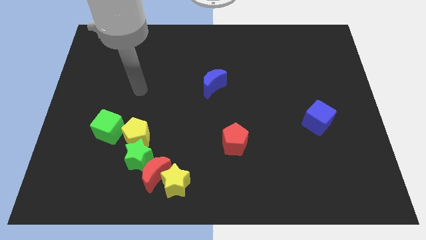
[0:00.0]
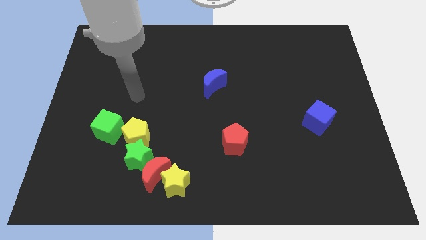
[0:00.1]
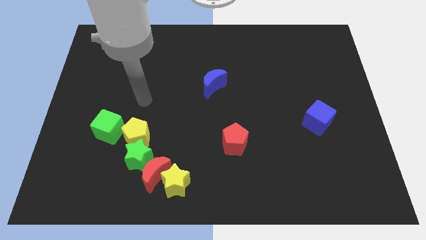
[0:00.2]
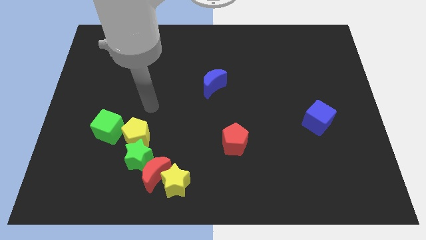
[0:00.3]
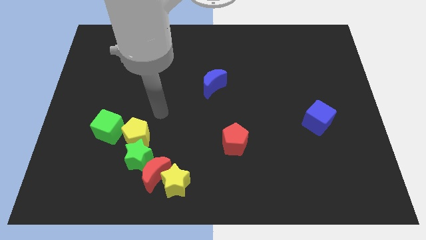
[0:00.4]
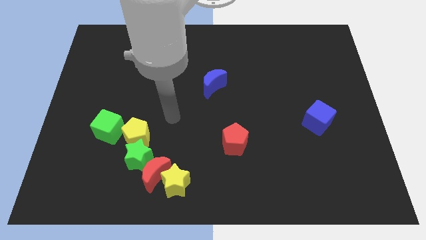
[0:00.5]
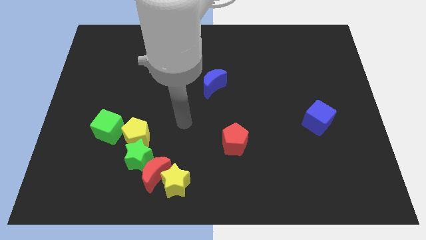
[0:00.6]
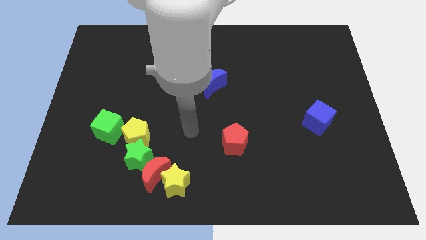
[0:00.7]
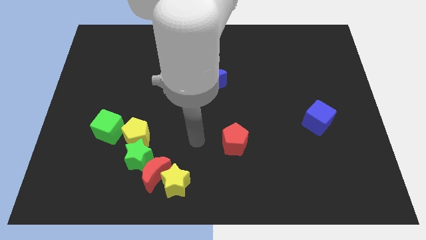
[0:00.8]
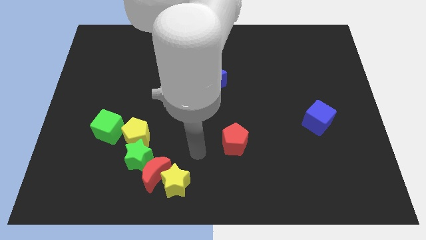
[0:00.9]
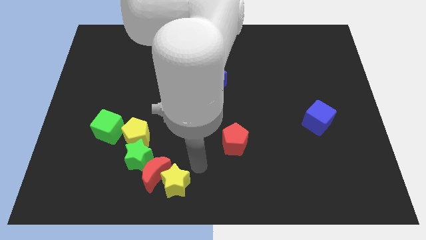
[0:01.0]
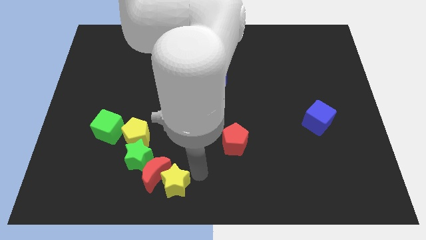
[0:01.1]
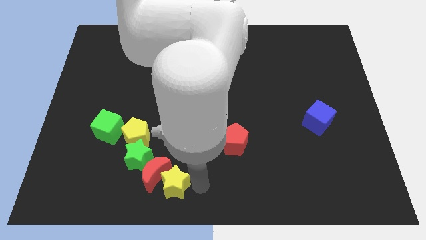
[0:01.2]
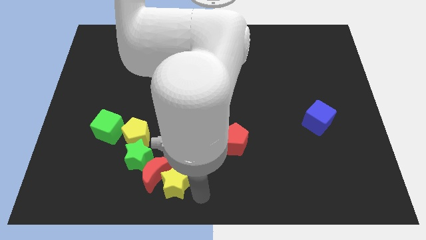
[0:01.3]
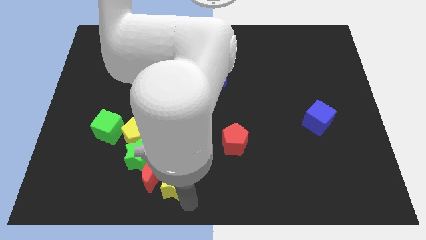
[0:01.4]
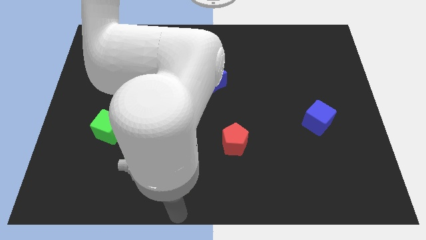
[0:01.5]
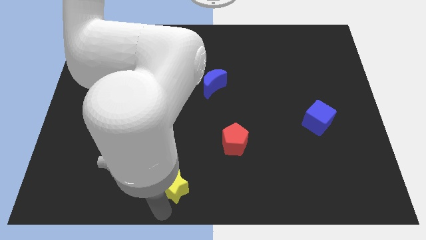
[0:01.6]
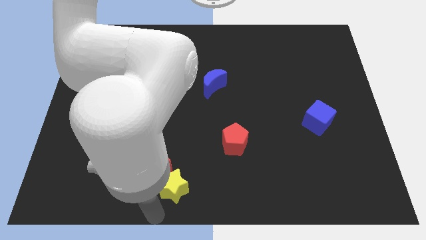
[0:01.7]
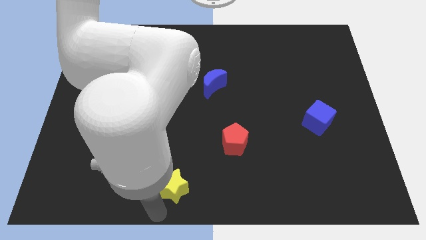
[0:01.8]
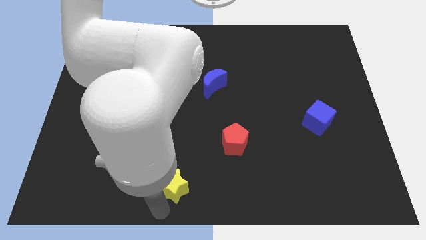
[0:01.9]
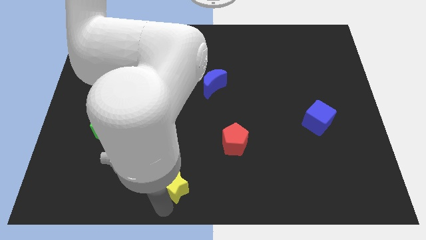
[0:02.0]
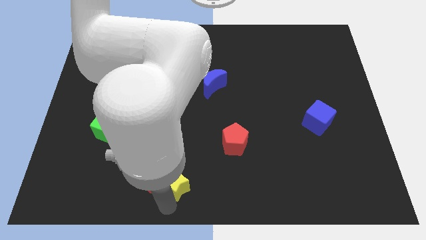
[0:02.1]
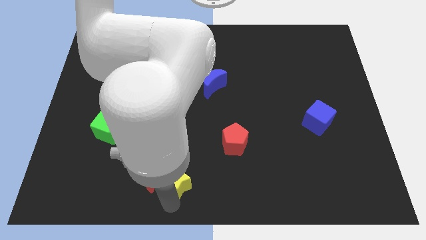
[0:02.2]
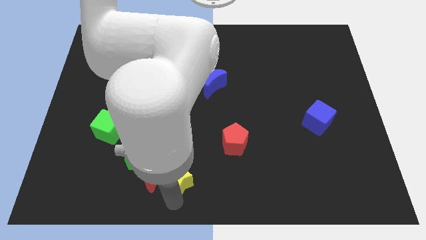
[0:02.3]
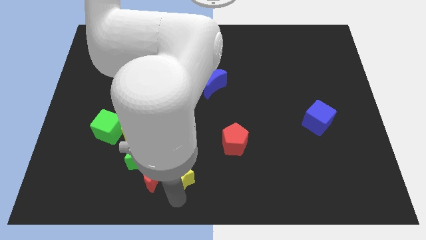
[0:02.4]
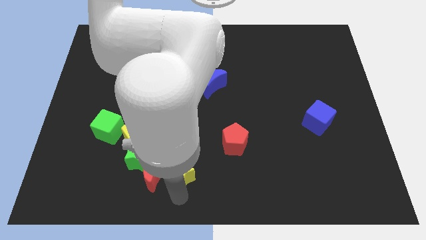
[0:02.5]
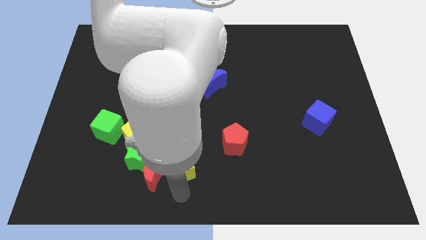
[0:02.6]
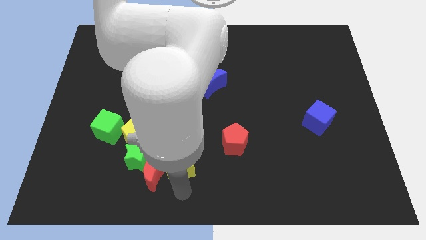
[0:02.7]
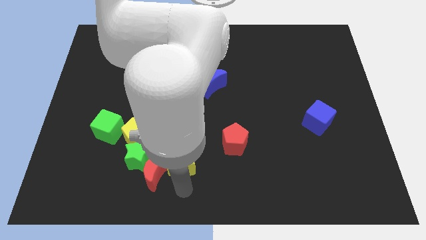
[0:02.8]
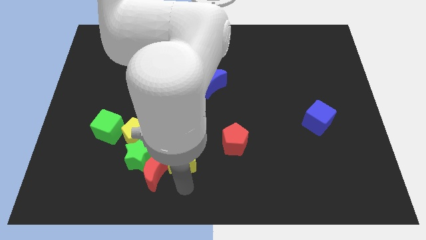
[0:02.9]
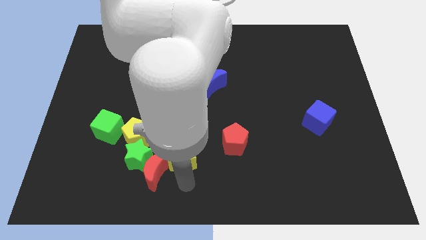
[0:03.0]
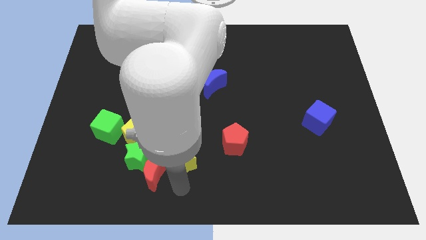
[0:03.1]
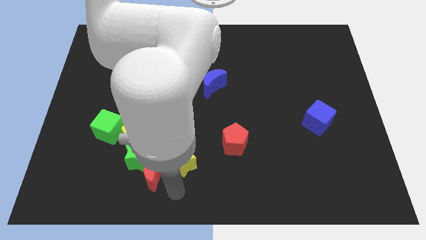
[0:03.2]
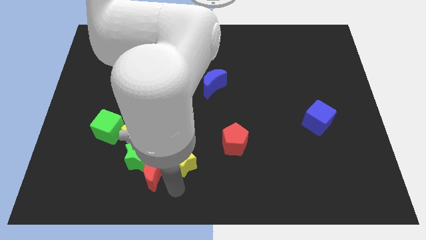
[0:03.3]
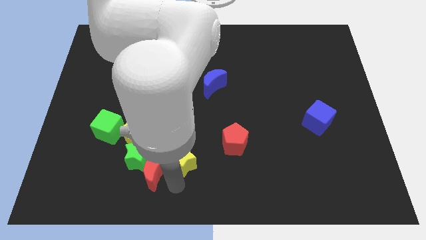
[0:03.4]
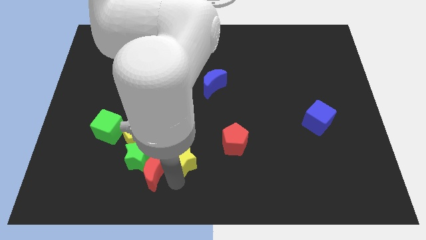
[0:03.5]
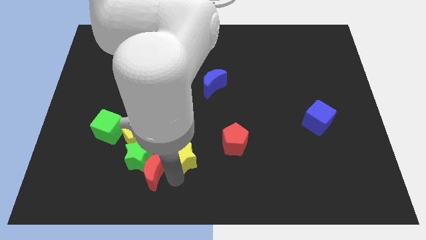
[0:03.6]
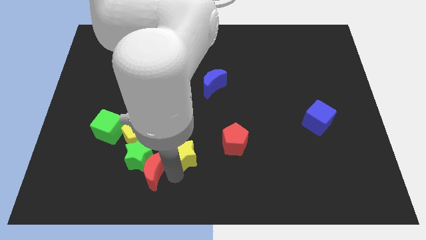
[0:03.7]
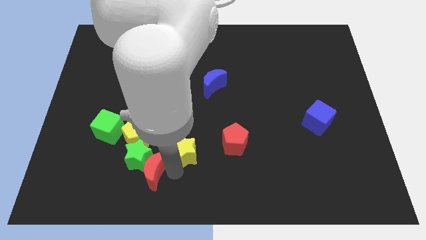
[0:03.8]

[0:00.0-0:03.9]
move the yellow star up a little

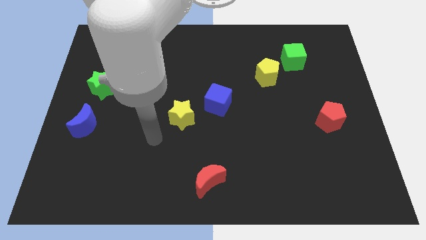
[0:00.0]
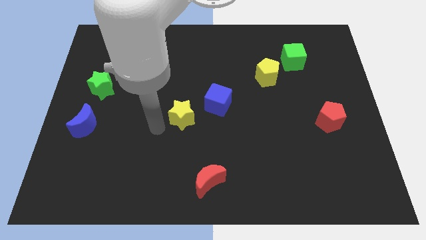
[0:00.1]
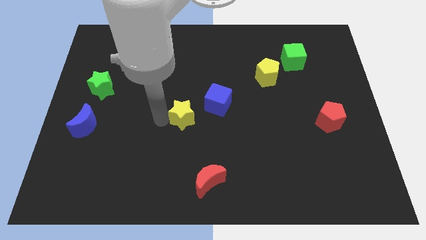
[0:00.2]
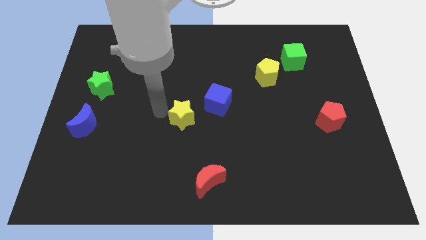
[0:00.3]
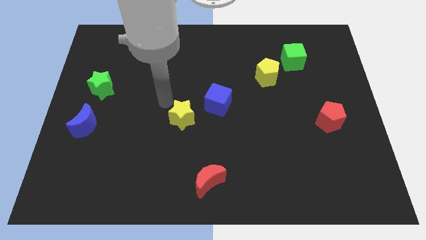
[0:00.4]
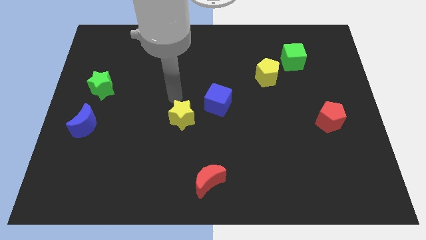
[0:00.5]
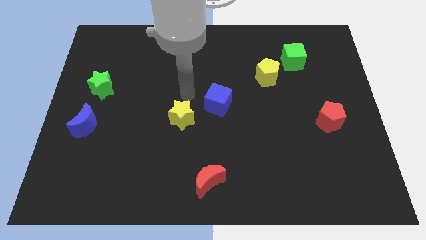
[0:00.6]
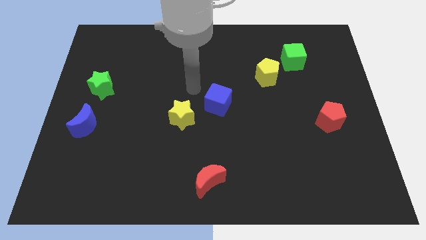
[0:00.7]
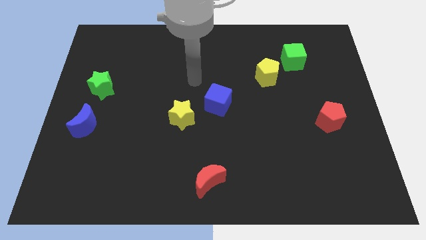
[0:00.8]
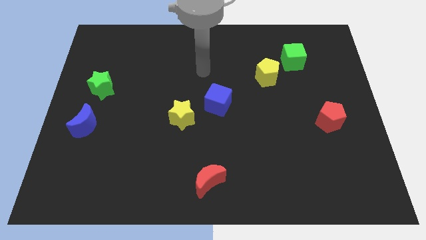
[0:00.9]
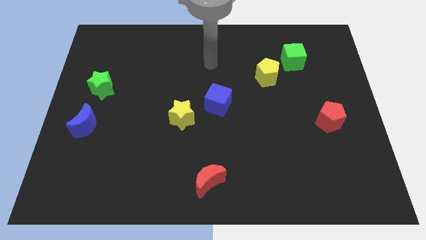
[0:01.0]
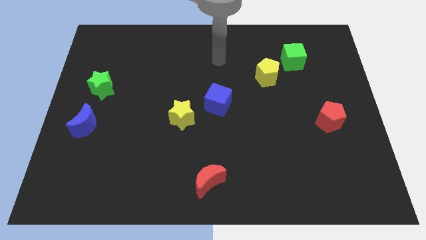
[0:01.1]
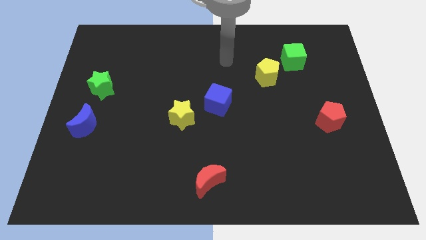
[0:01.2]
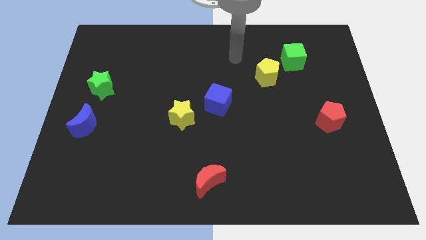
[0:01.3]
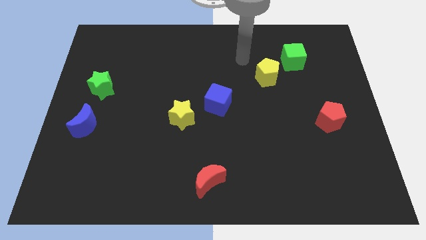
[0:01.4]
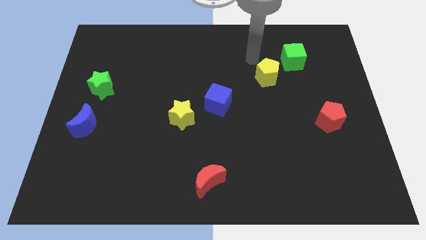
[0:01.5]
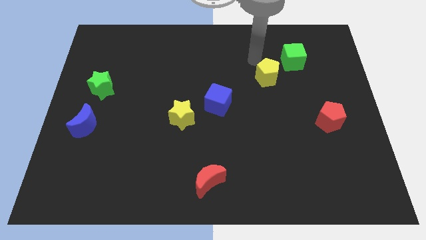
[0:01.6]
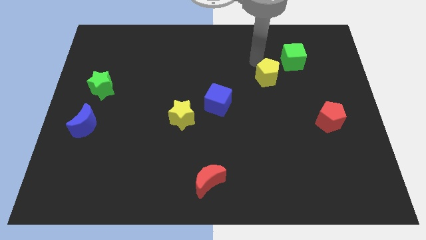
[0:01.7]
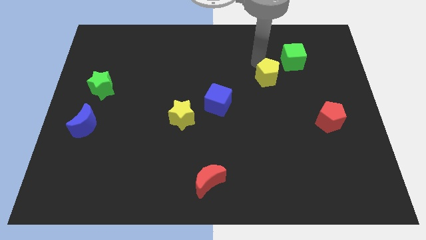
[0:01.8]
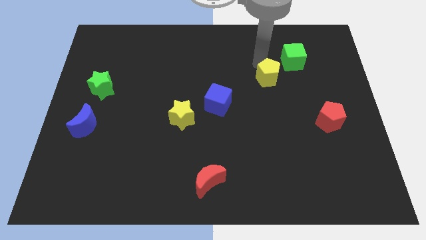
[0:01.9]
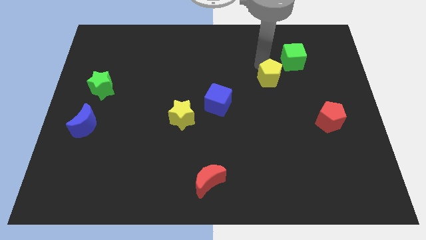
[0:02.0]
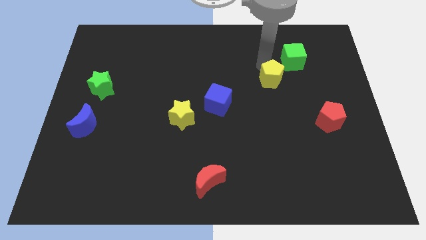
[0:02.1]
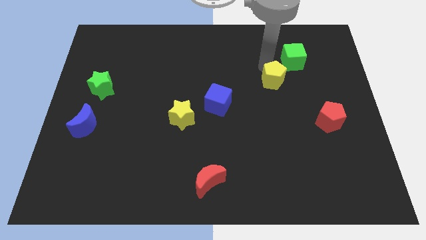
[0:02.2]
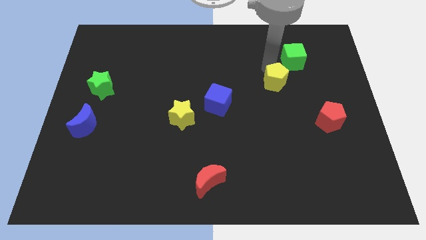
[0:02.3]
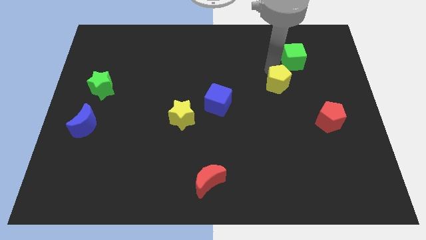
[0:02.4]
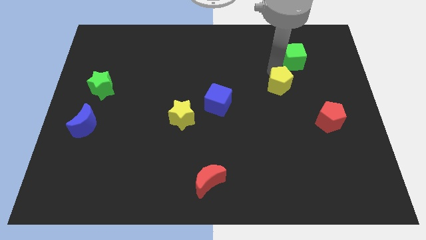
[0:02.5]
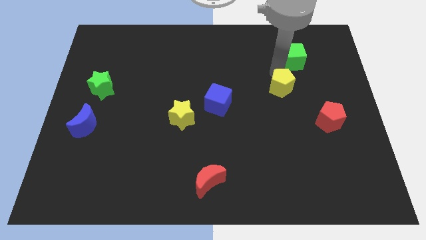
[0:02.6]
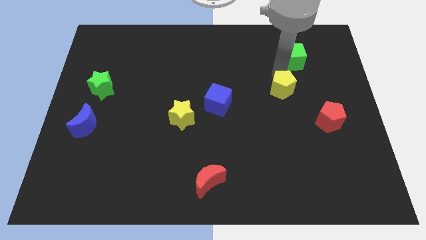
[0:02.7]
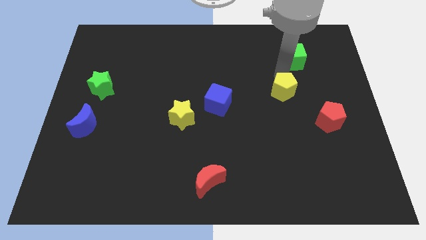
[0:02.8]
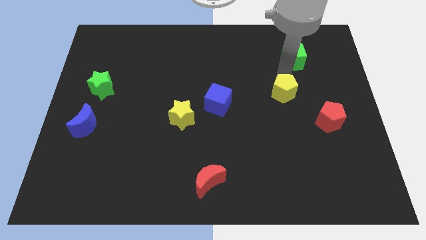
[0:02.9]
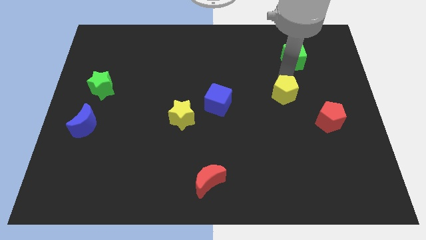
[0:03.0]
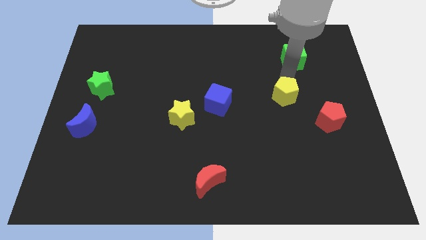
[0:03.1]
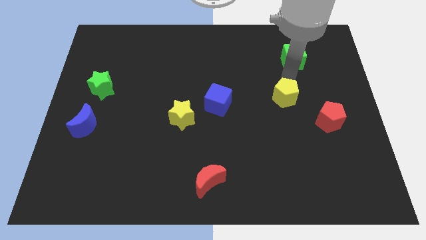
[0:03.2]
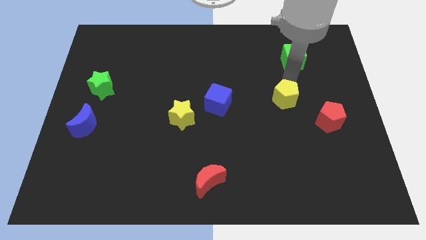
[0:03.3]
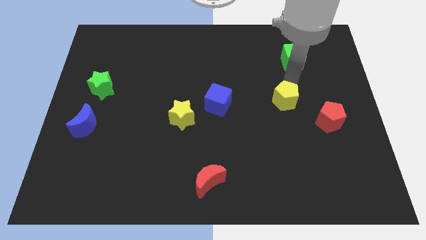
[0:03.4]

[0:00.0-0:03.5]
push the yellow pentagon somewhat down

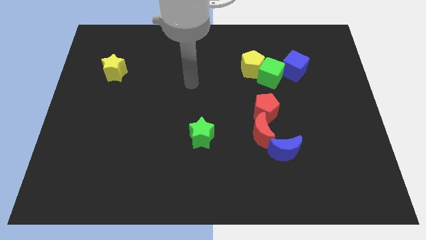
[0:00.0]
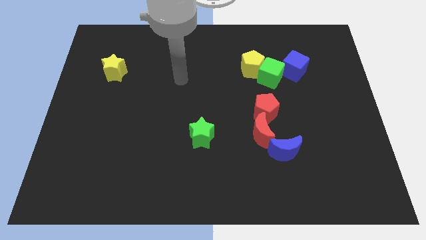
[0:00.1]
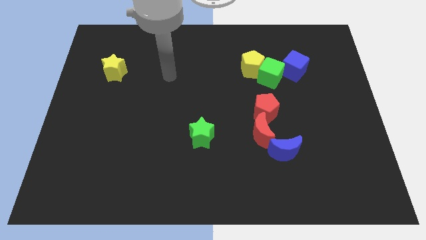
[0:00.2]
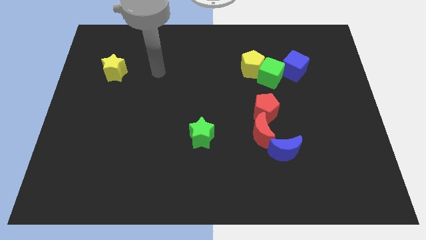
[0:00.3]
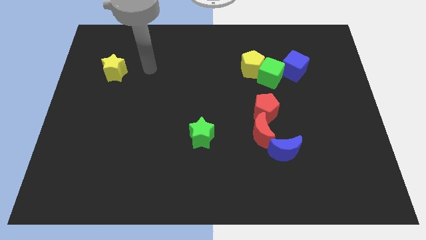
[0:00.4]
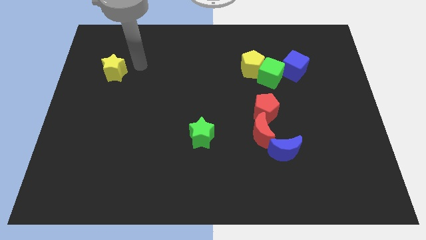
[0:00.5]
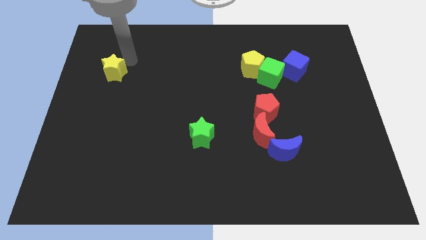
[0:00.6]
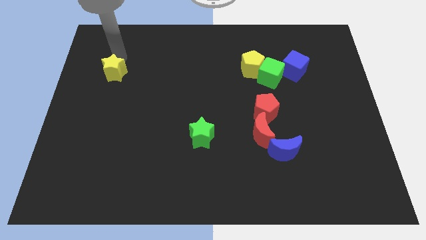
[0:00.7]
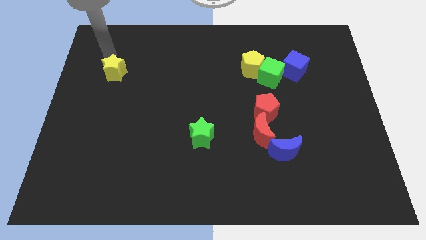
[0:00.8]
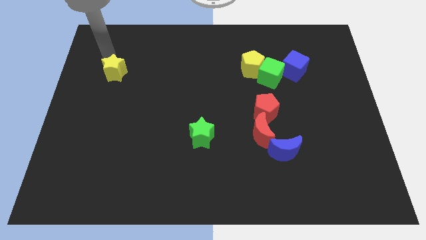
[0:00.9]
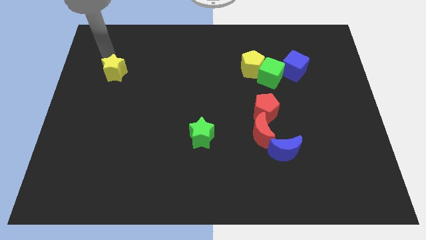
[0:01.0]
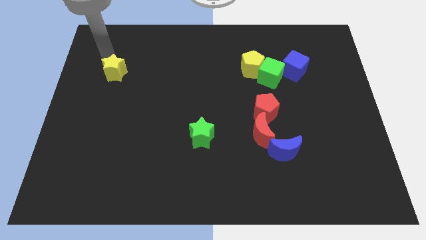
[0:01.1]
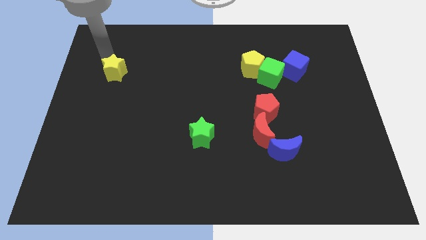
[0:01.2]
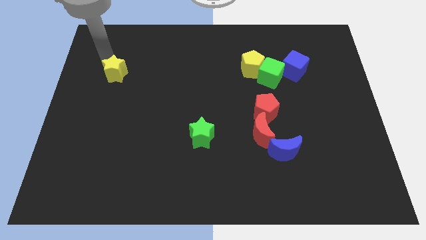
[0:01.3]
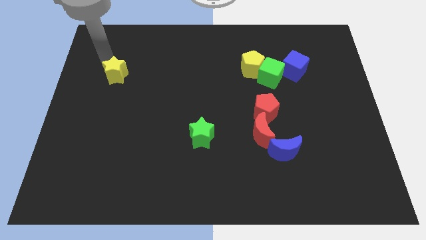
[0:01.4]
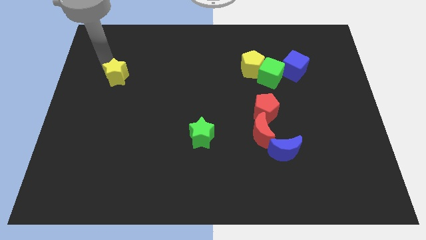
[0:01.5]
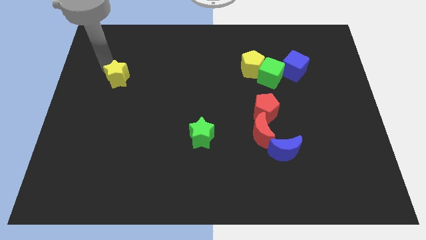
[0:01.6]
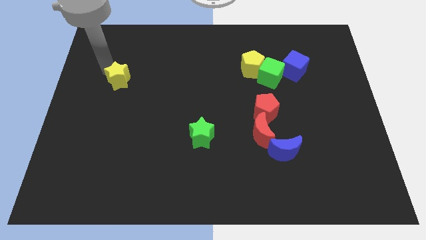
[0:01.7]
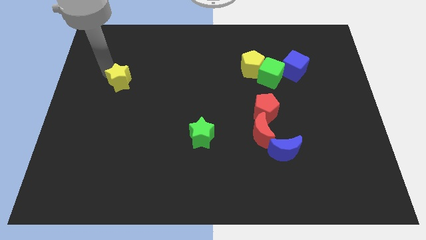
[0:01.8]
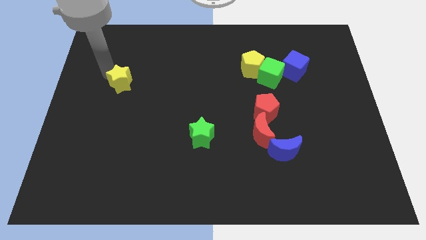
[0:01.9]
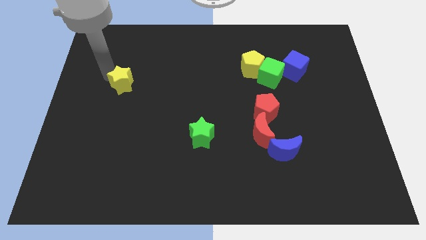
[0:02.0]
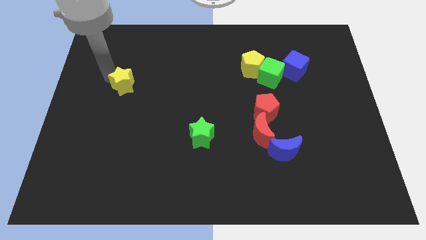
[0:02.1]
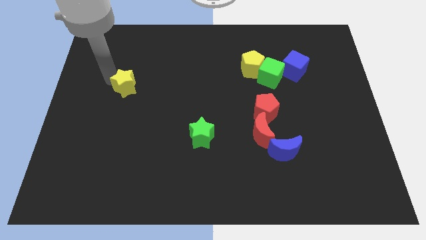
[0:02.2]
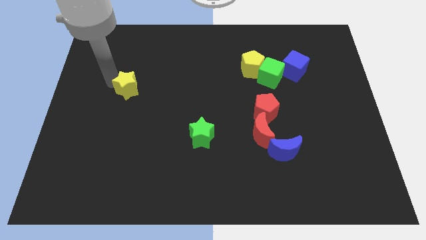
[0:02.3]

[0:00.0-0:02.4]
push the yellow star down and to the right diagonally a little
